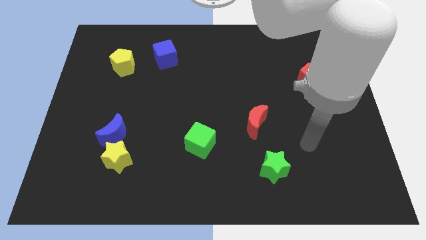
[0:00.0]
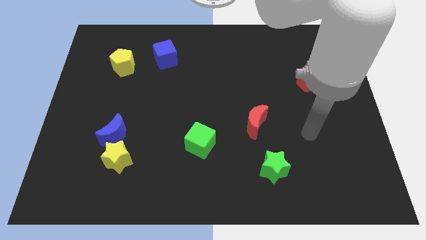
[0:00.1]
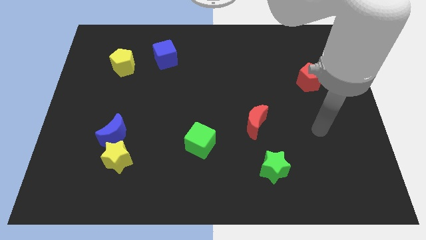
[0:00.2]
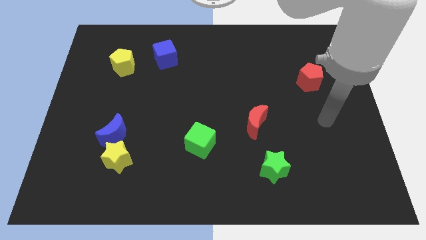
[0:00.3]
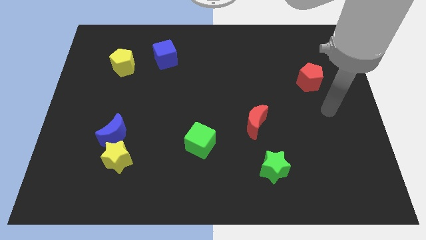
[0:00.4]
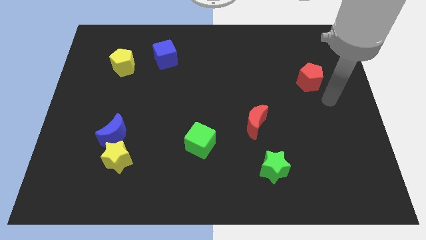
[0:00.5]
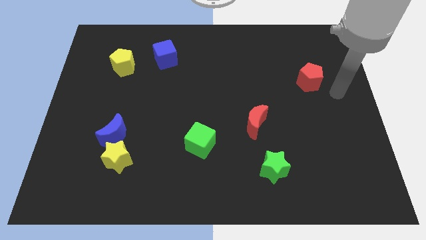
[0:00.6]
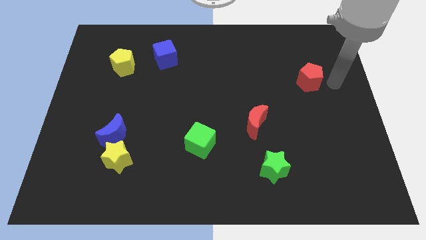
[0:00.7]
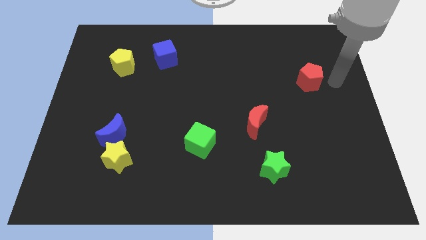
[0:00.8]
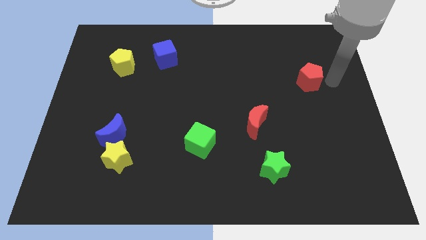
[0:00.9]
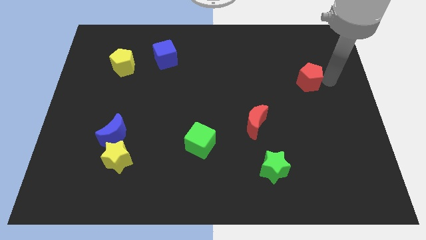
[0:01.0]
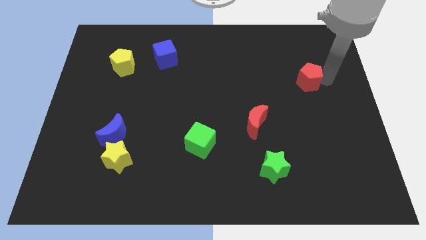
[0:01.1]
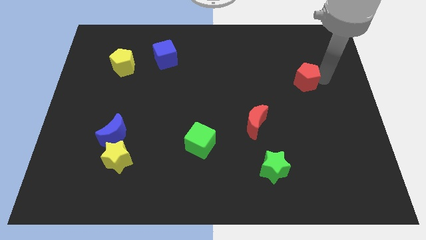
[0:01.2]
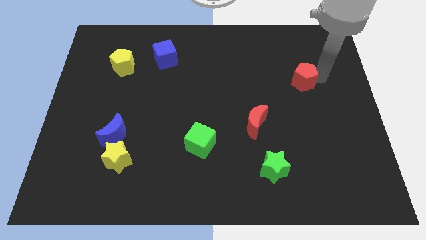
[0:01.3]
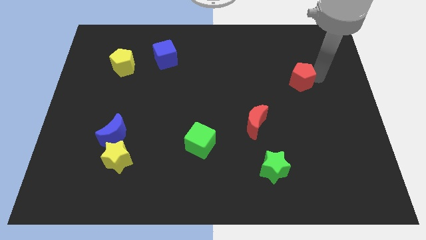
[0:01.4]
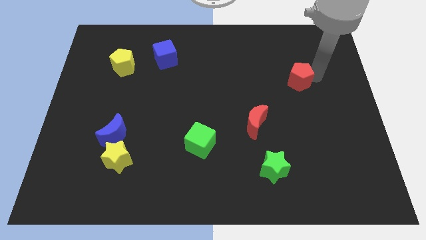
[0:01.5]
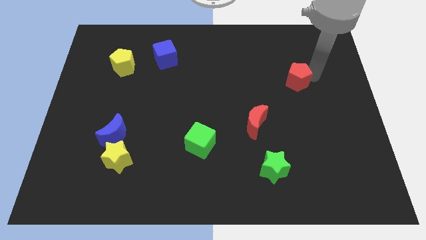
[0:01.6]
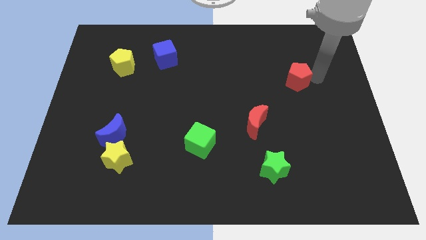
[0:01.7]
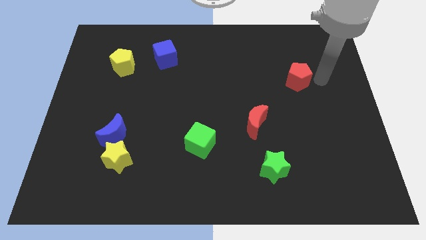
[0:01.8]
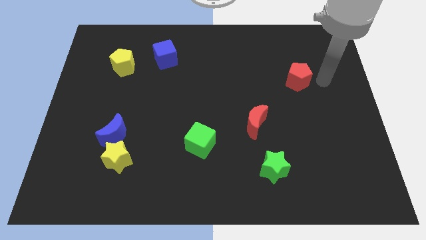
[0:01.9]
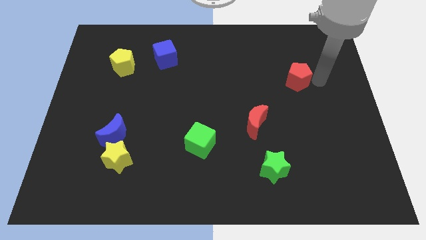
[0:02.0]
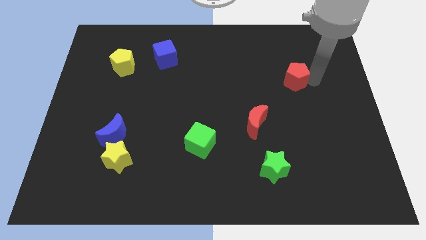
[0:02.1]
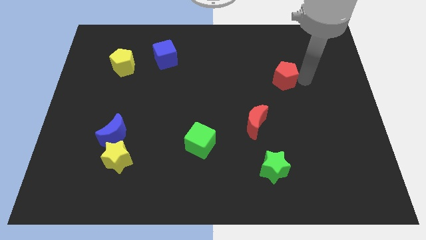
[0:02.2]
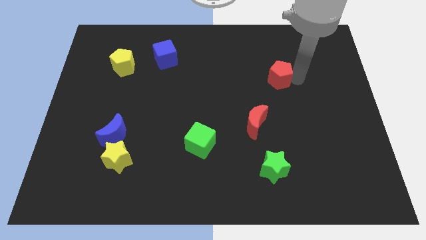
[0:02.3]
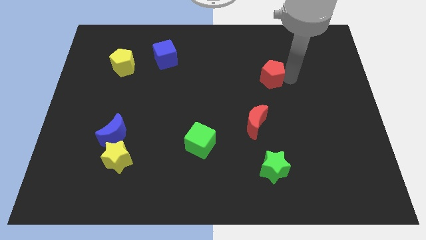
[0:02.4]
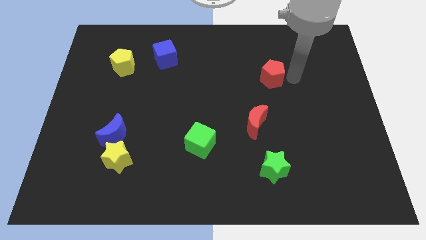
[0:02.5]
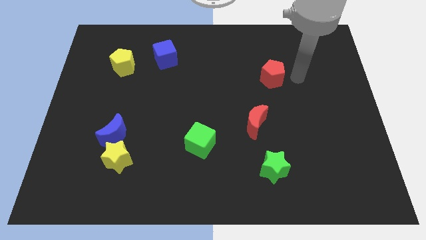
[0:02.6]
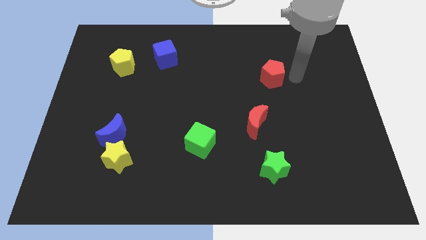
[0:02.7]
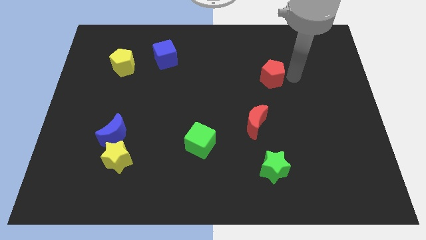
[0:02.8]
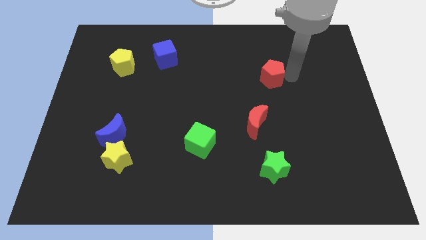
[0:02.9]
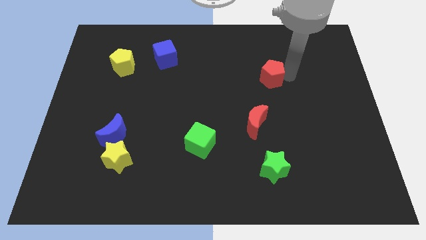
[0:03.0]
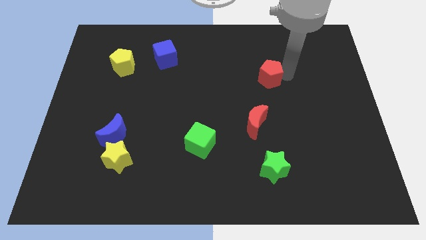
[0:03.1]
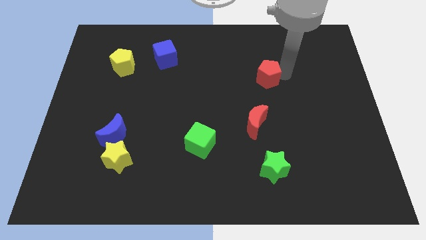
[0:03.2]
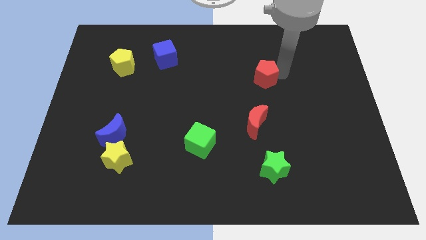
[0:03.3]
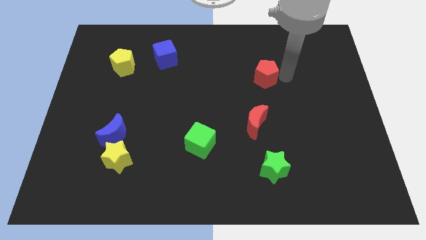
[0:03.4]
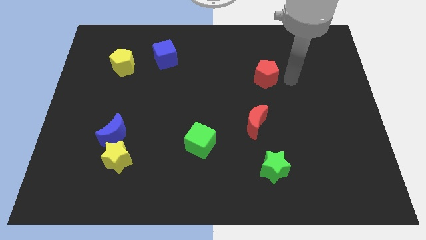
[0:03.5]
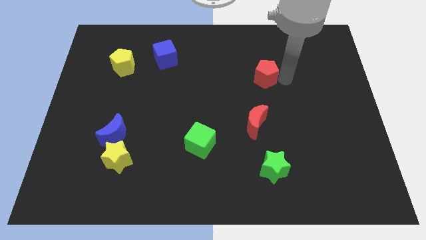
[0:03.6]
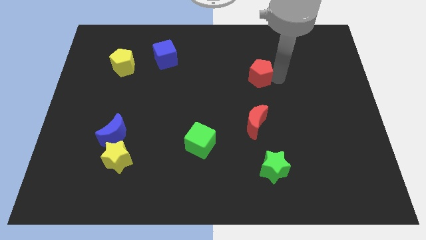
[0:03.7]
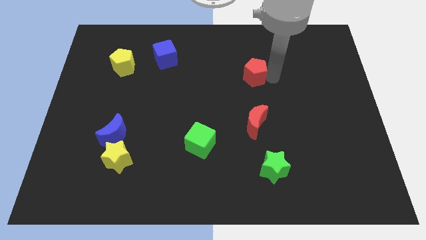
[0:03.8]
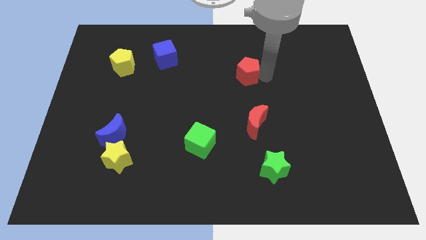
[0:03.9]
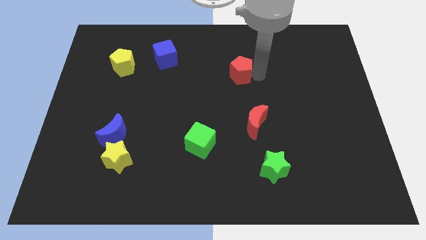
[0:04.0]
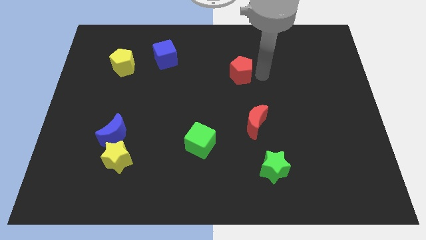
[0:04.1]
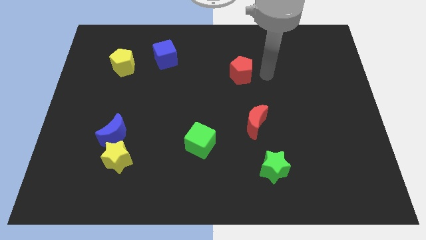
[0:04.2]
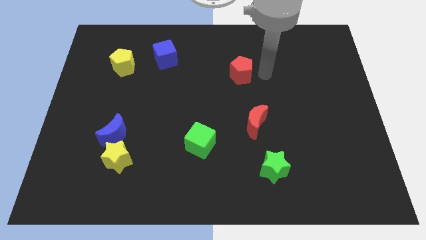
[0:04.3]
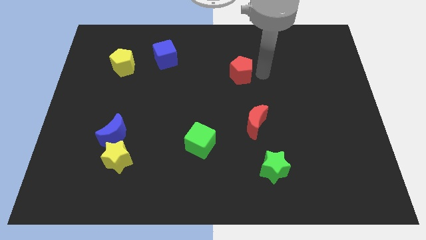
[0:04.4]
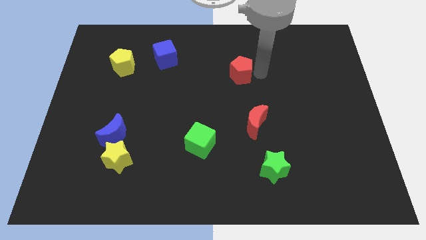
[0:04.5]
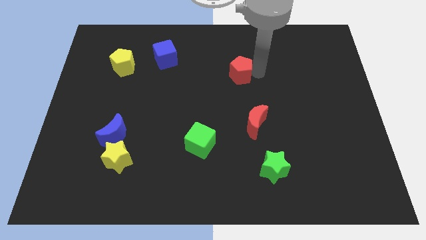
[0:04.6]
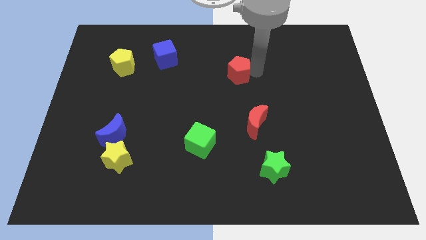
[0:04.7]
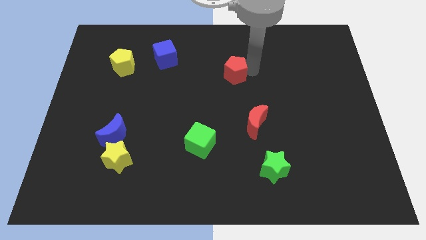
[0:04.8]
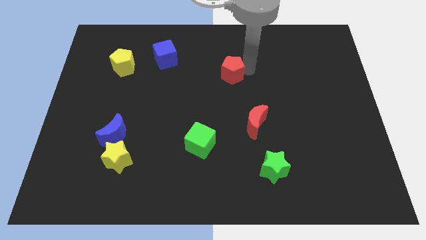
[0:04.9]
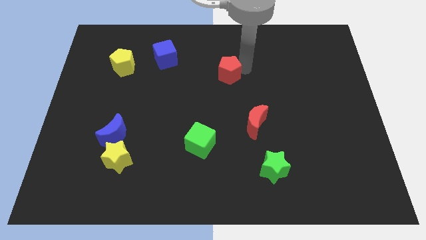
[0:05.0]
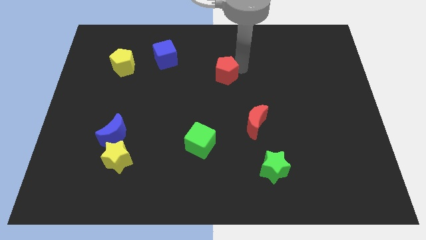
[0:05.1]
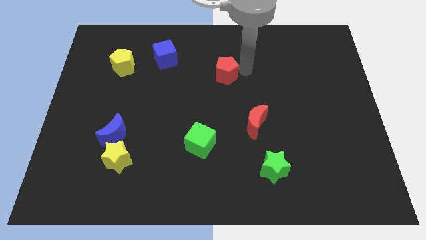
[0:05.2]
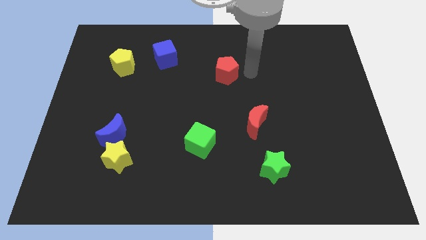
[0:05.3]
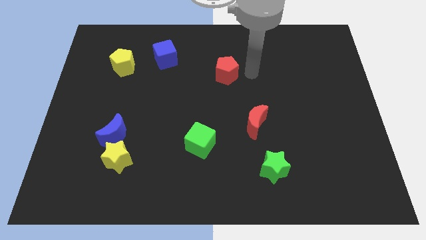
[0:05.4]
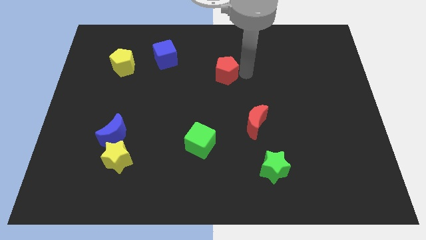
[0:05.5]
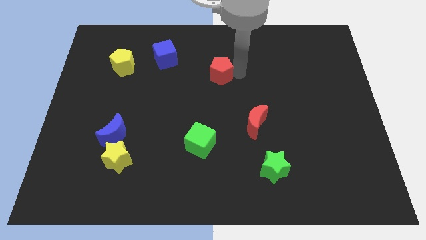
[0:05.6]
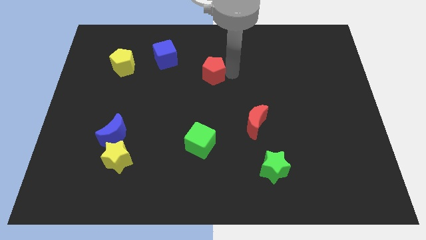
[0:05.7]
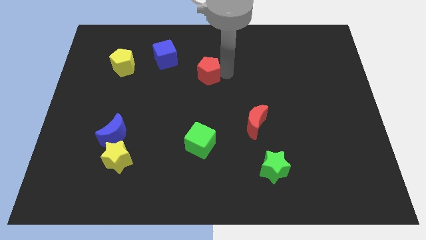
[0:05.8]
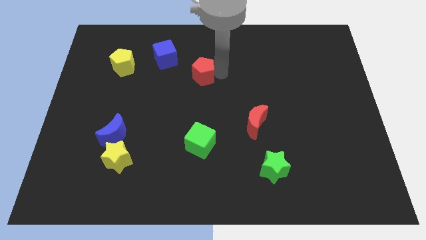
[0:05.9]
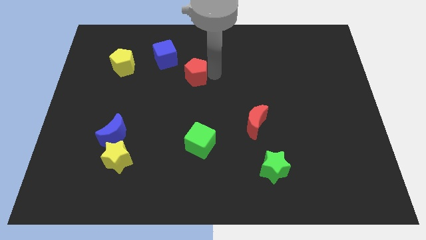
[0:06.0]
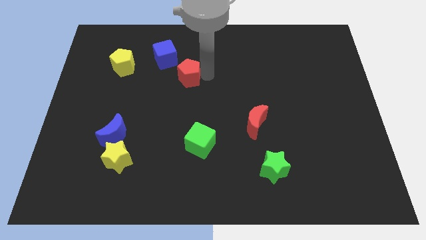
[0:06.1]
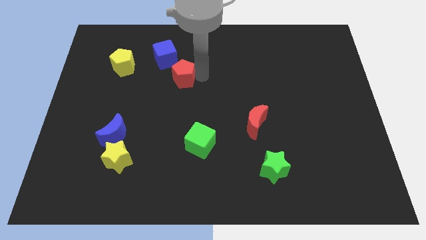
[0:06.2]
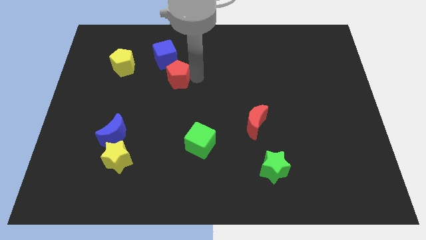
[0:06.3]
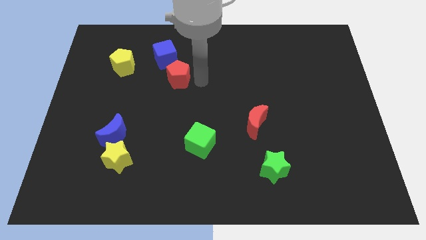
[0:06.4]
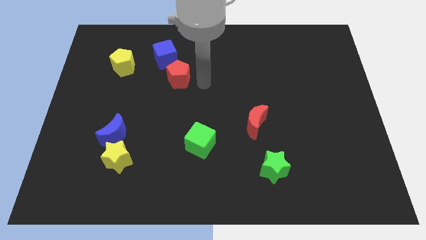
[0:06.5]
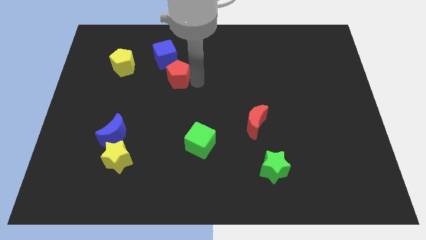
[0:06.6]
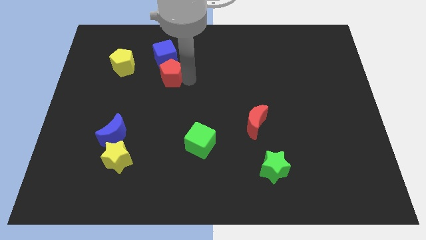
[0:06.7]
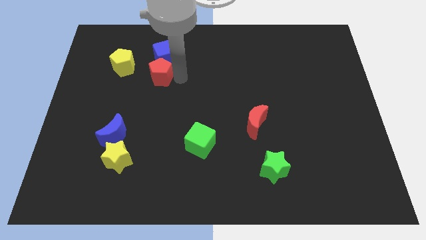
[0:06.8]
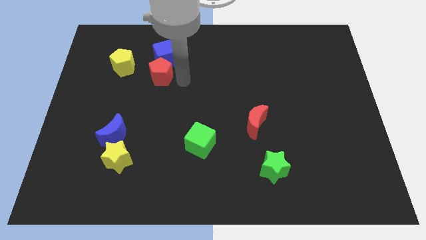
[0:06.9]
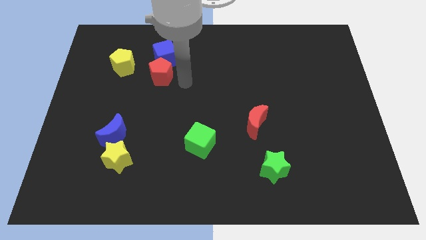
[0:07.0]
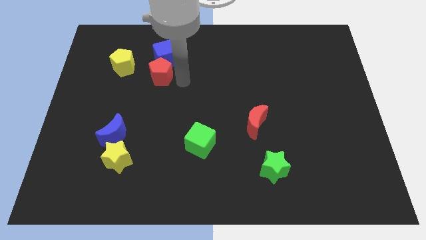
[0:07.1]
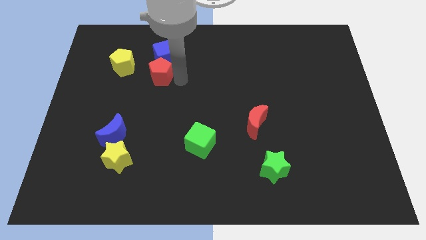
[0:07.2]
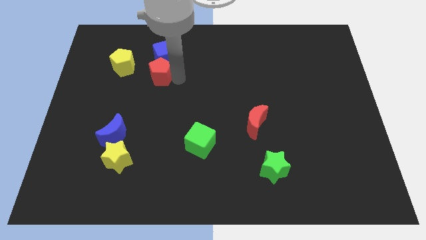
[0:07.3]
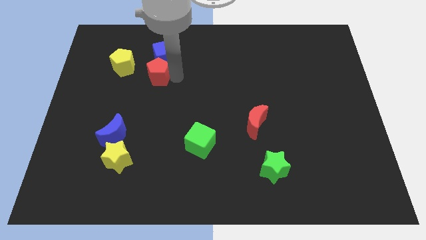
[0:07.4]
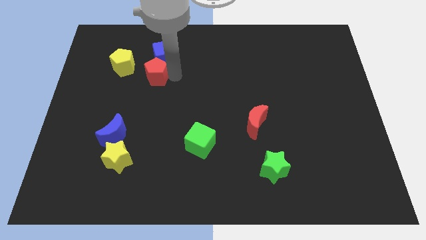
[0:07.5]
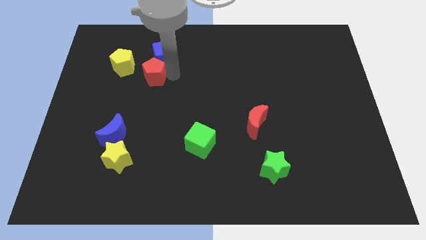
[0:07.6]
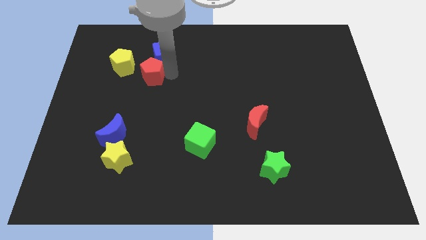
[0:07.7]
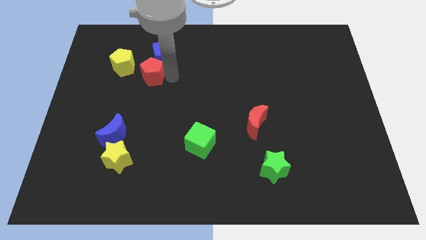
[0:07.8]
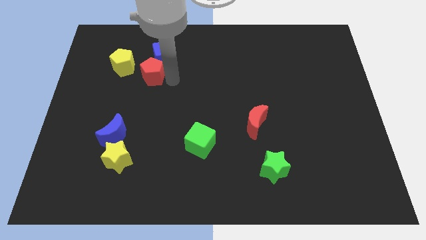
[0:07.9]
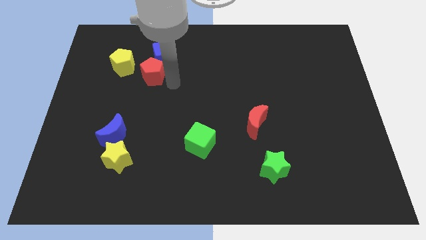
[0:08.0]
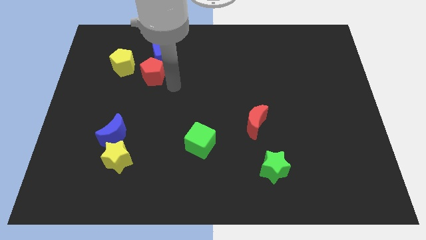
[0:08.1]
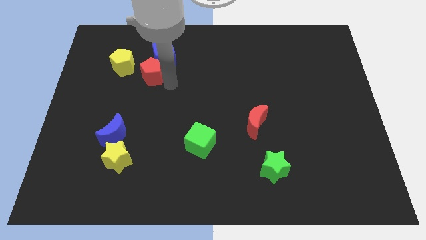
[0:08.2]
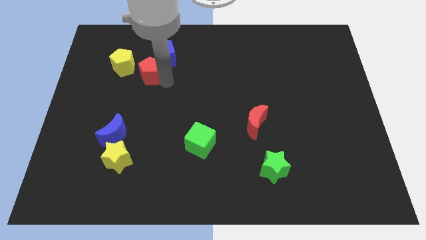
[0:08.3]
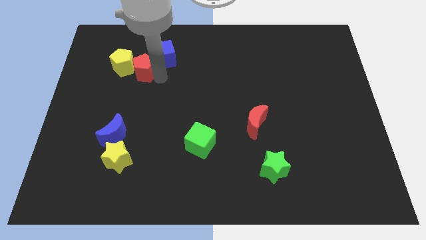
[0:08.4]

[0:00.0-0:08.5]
put the red pentagon to the yellow pentagon
